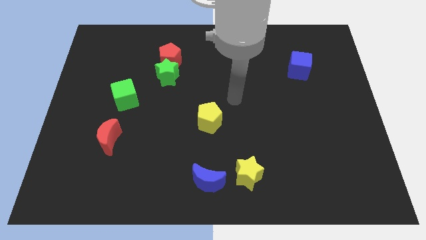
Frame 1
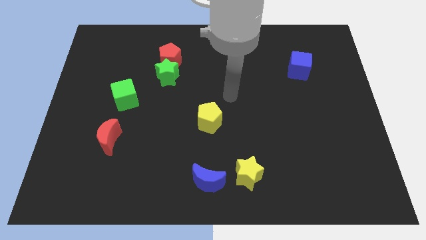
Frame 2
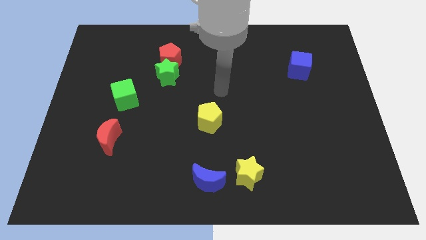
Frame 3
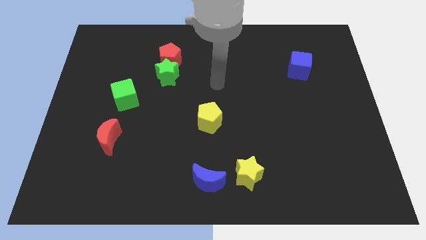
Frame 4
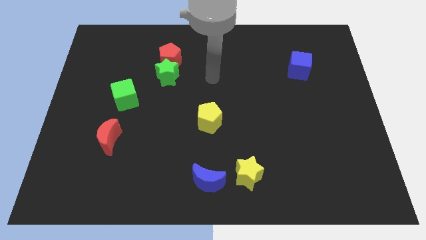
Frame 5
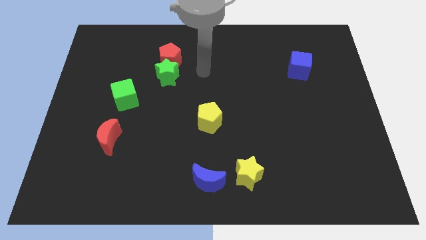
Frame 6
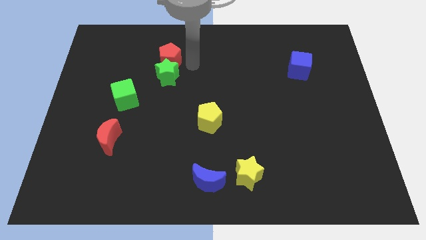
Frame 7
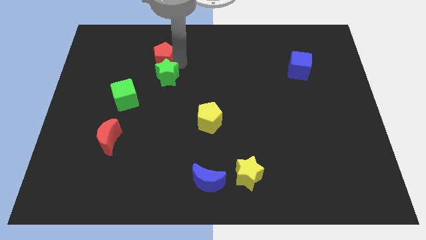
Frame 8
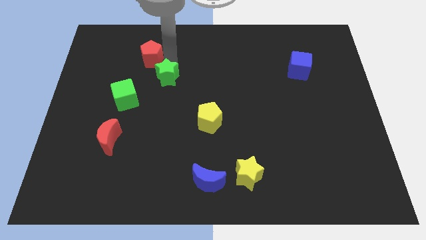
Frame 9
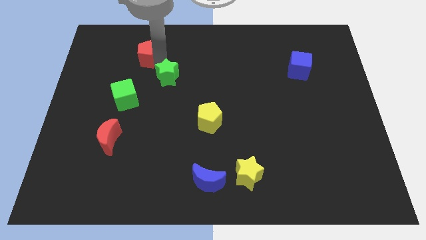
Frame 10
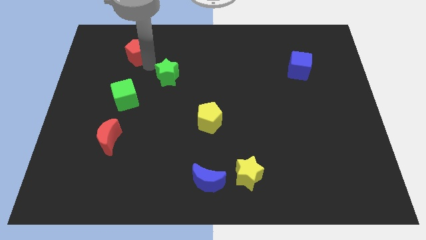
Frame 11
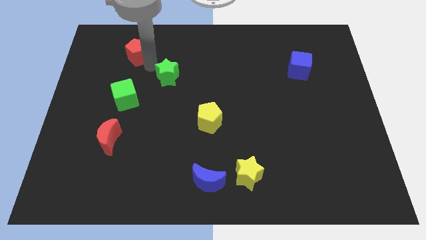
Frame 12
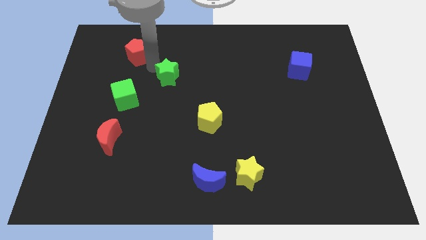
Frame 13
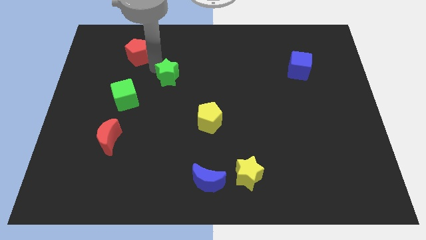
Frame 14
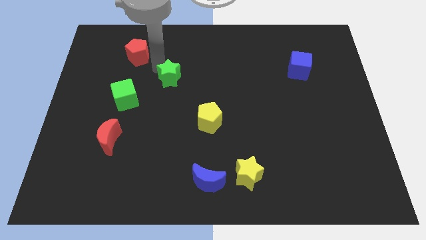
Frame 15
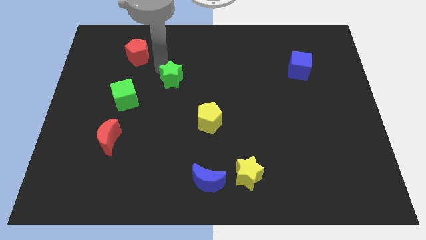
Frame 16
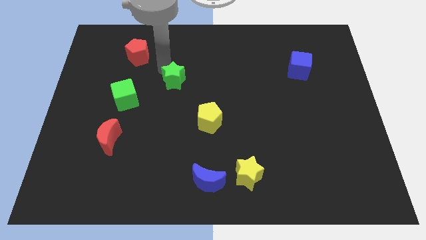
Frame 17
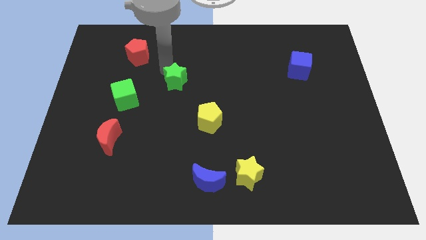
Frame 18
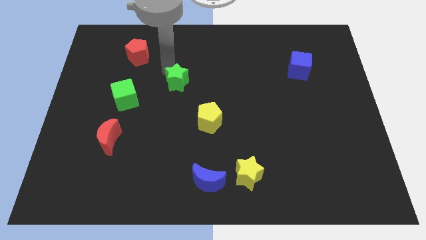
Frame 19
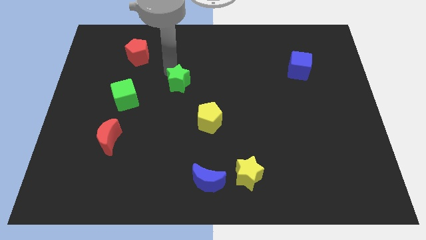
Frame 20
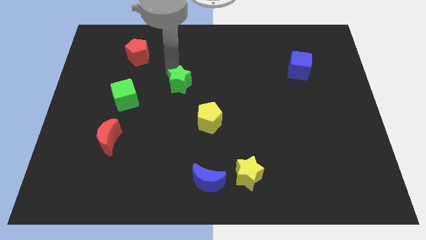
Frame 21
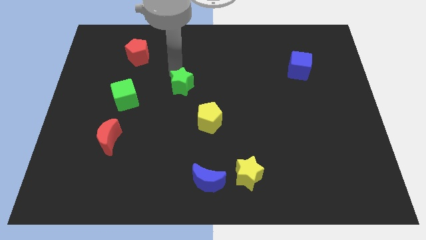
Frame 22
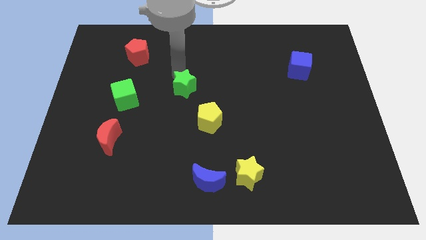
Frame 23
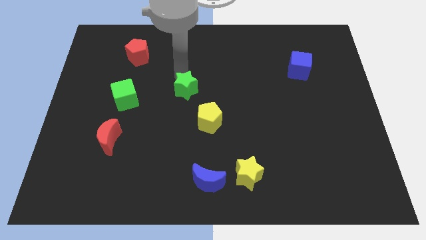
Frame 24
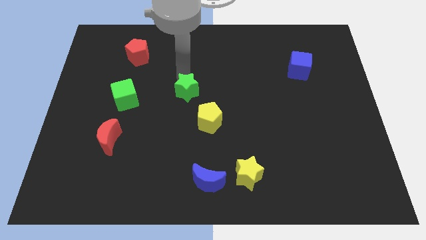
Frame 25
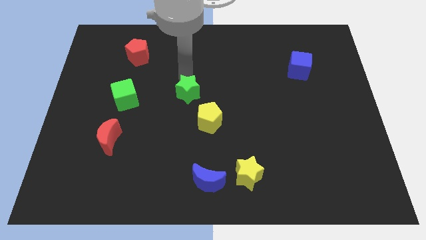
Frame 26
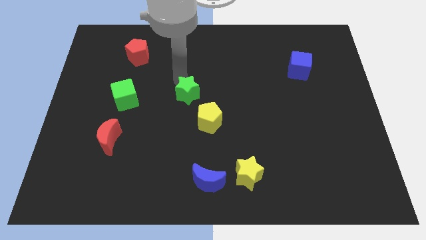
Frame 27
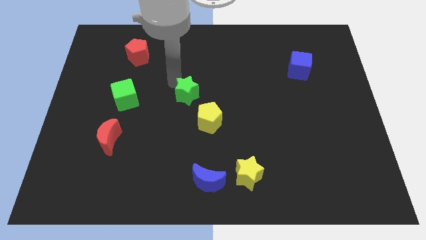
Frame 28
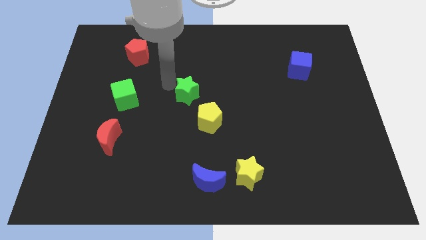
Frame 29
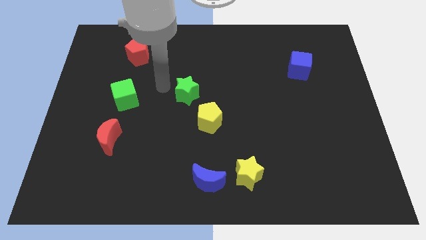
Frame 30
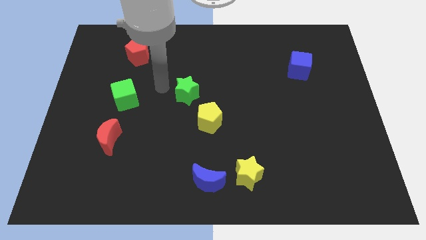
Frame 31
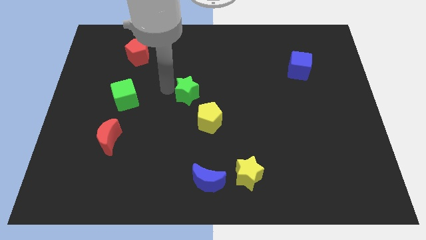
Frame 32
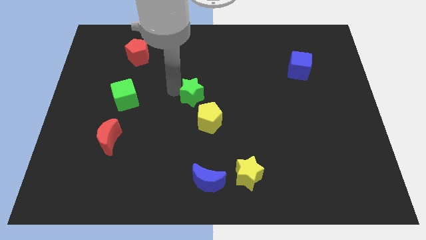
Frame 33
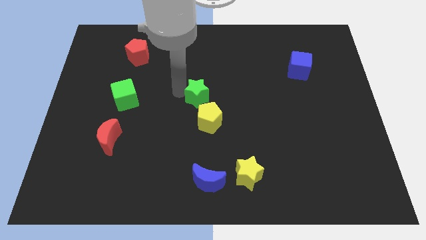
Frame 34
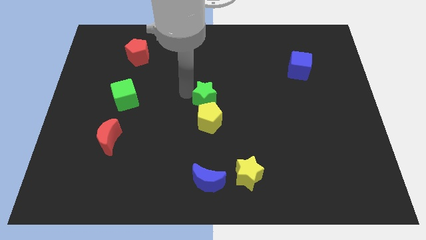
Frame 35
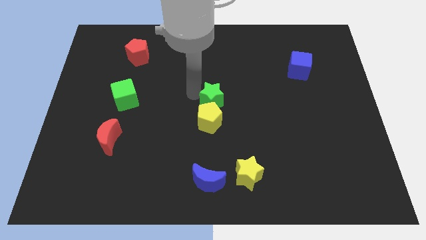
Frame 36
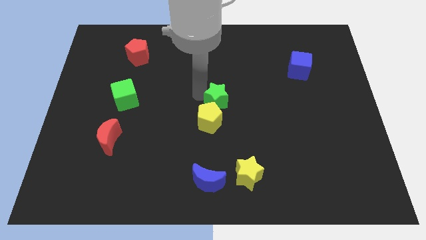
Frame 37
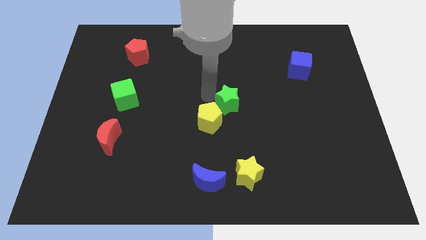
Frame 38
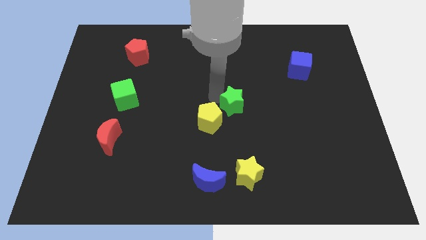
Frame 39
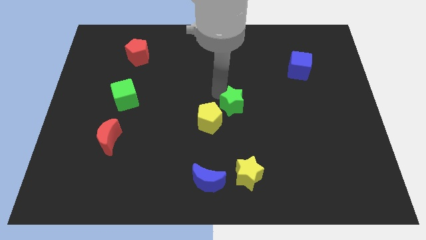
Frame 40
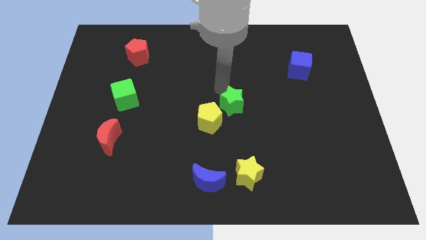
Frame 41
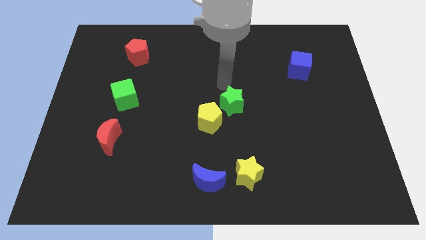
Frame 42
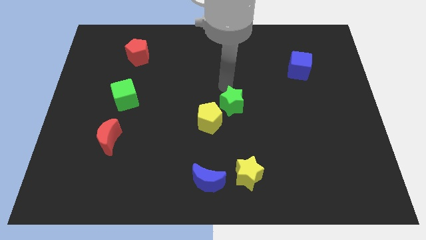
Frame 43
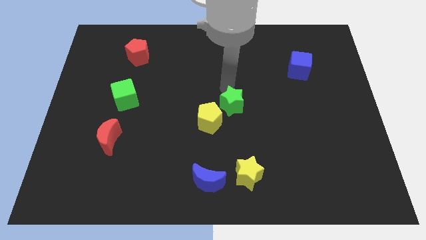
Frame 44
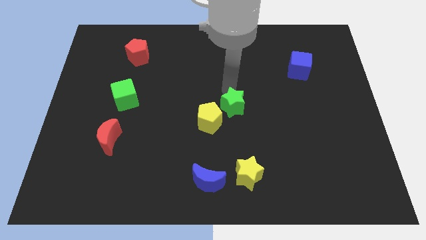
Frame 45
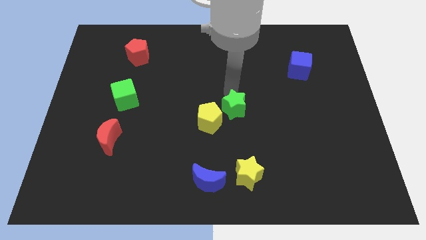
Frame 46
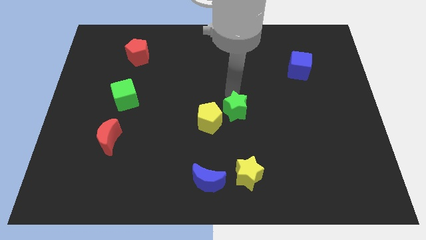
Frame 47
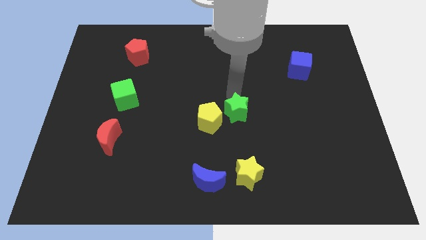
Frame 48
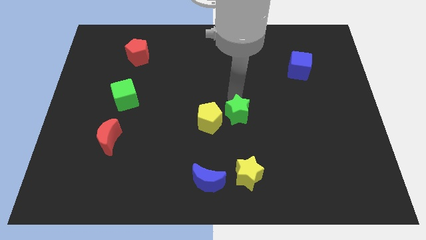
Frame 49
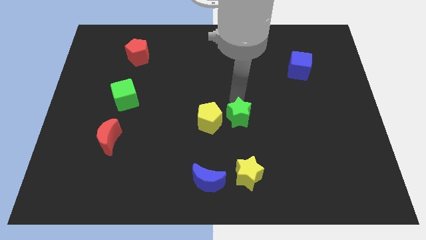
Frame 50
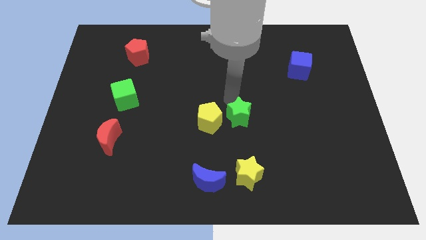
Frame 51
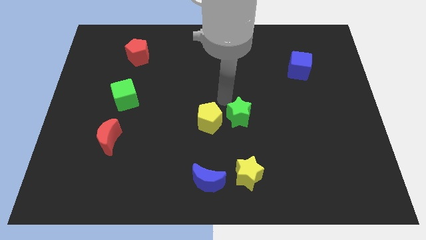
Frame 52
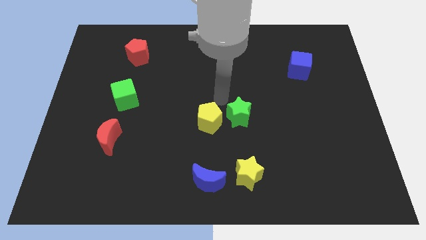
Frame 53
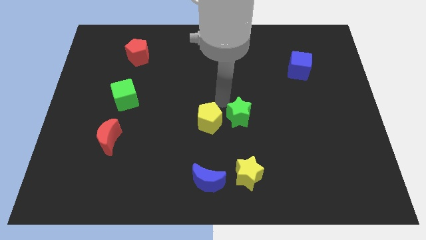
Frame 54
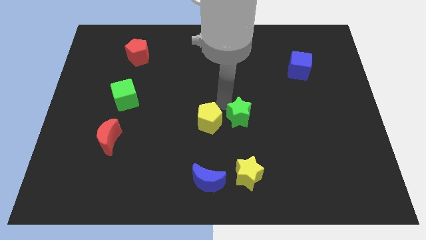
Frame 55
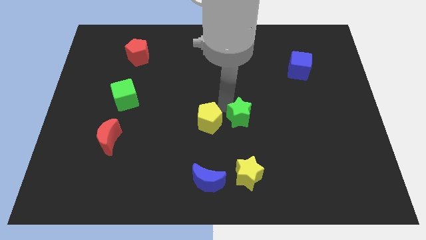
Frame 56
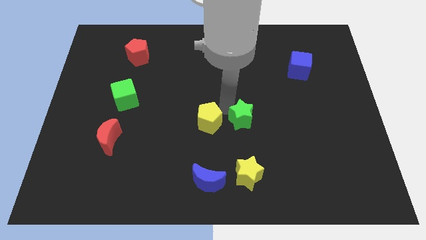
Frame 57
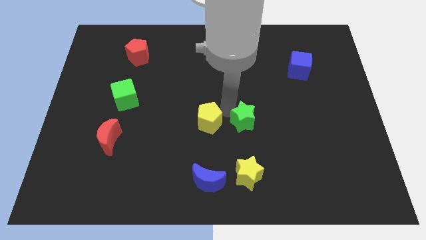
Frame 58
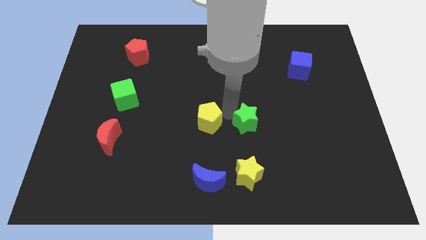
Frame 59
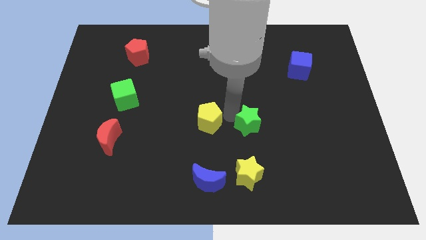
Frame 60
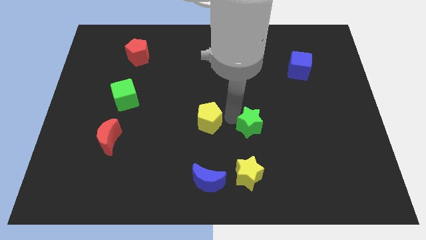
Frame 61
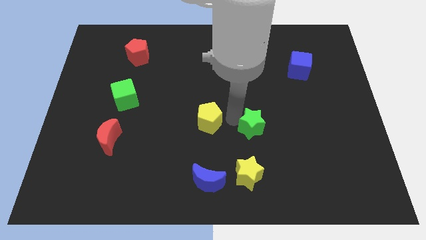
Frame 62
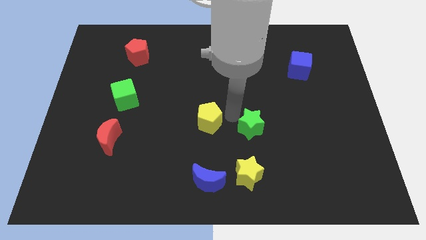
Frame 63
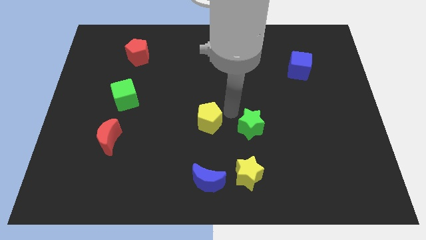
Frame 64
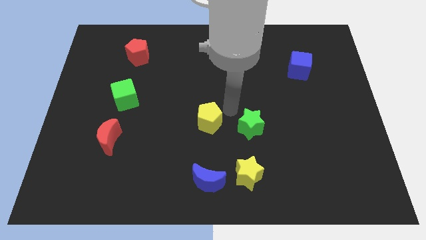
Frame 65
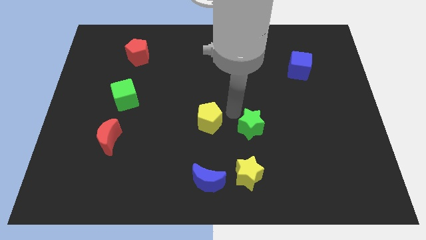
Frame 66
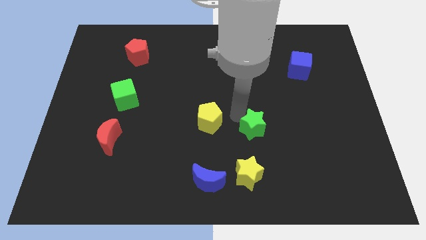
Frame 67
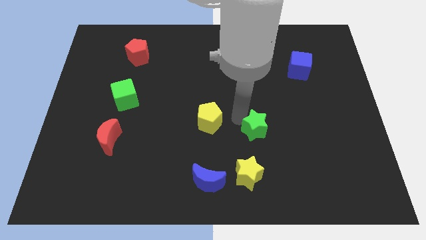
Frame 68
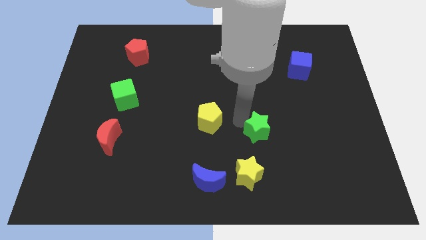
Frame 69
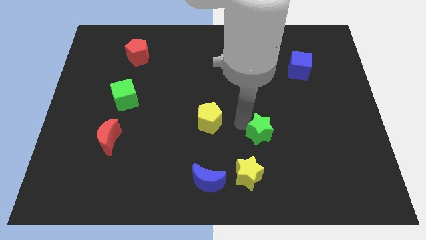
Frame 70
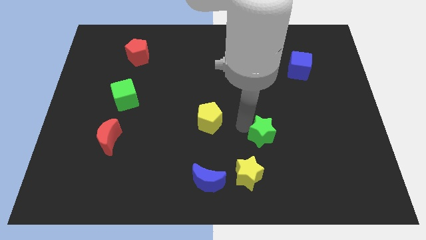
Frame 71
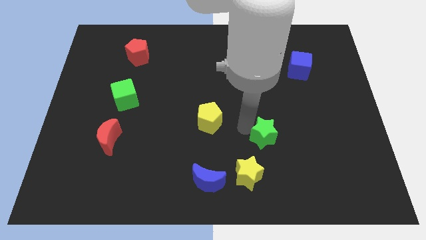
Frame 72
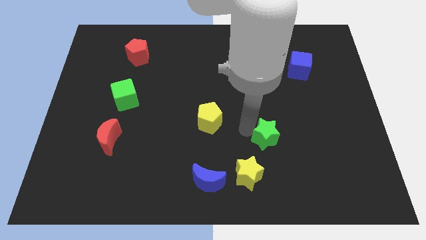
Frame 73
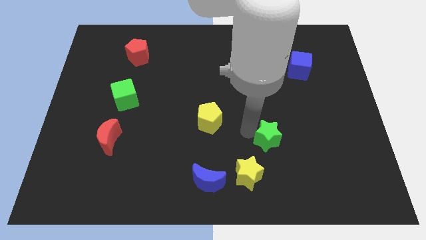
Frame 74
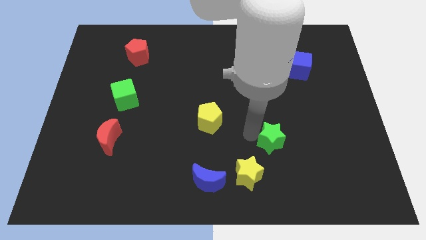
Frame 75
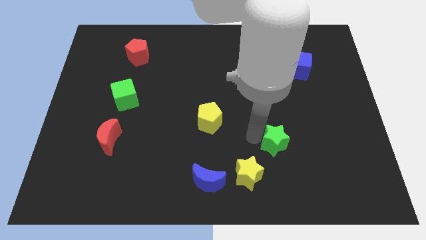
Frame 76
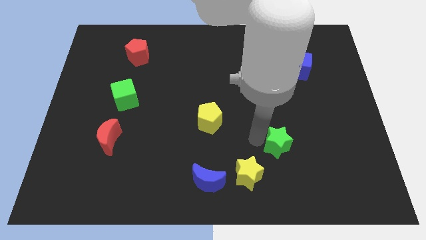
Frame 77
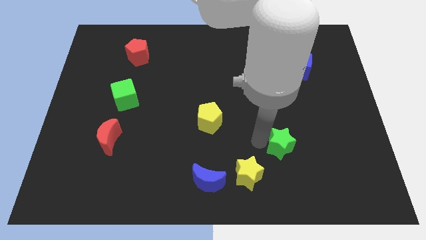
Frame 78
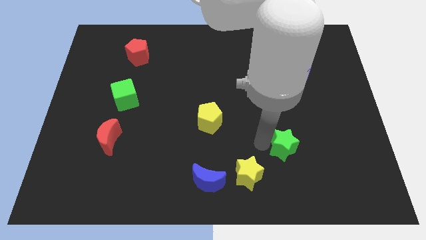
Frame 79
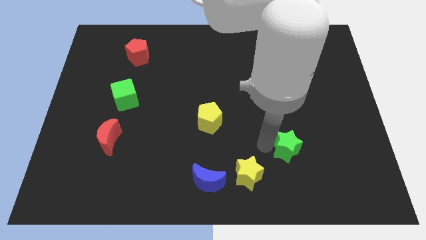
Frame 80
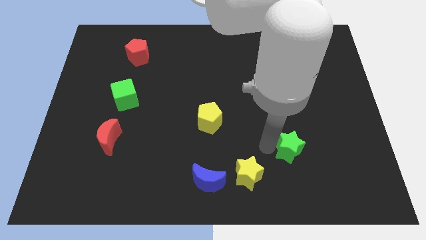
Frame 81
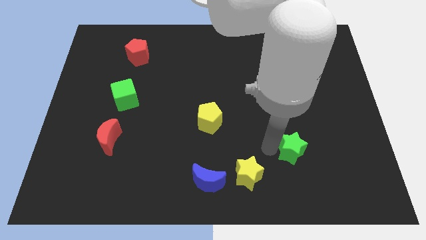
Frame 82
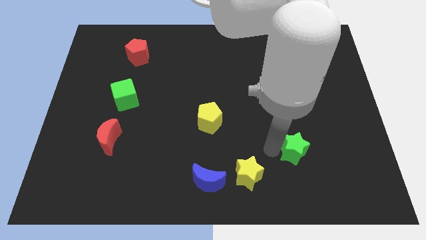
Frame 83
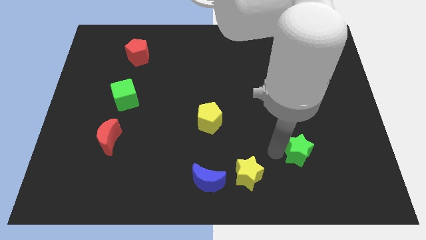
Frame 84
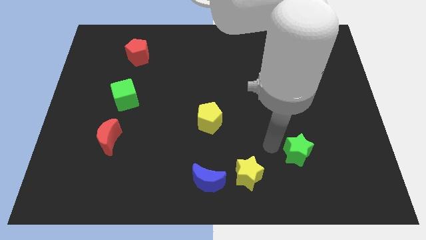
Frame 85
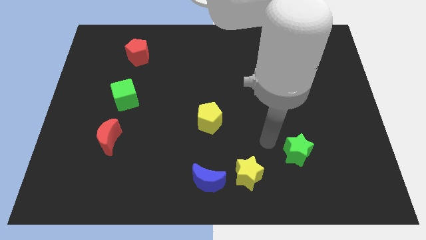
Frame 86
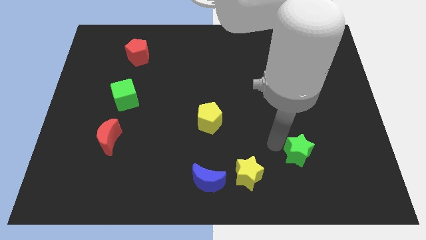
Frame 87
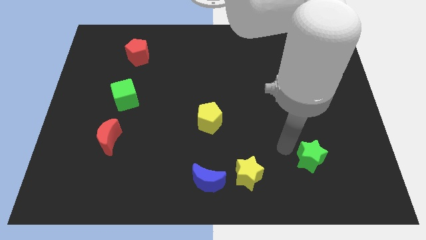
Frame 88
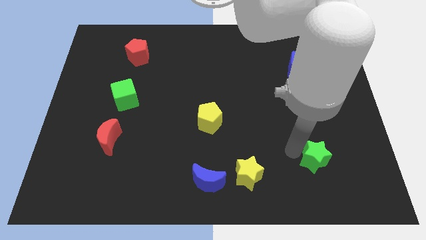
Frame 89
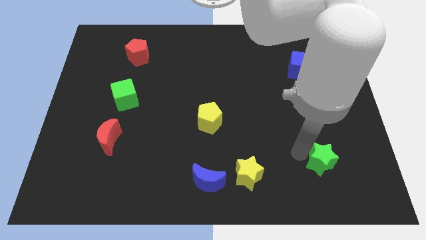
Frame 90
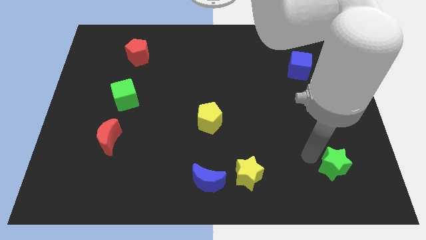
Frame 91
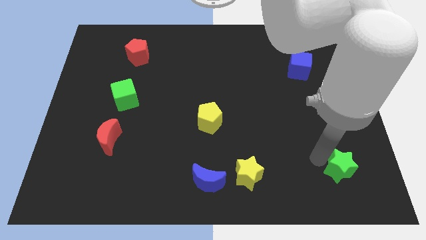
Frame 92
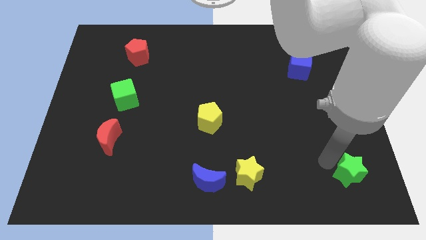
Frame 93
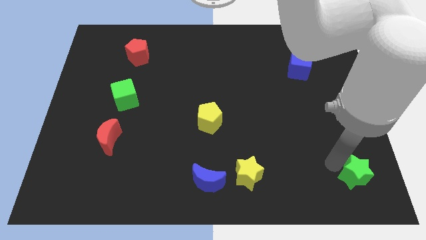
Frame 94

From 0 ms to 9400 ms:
slide the green star to the bottom right of the board
